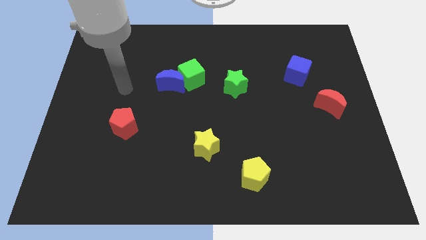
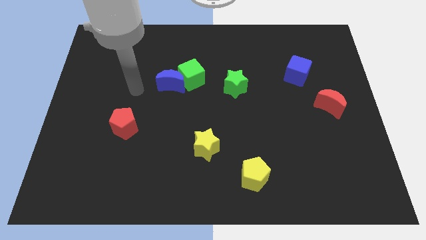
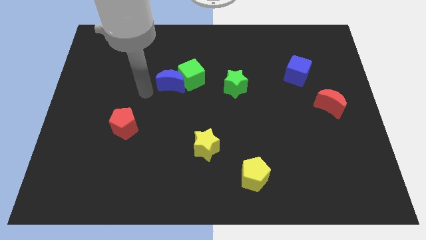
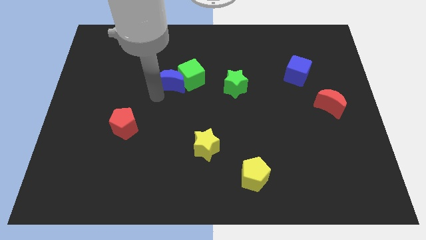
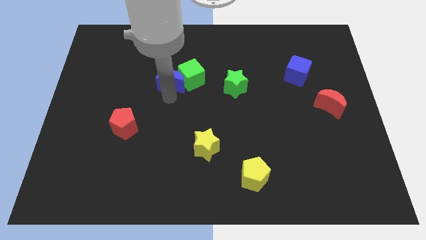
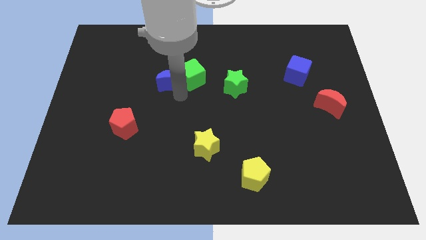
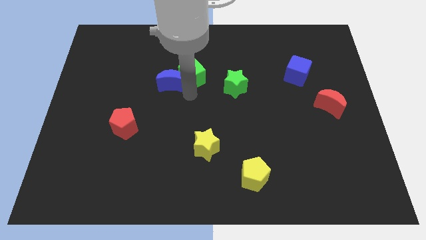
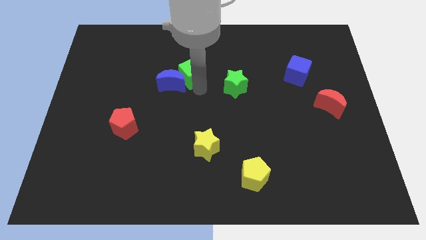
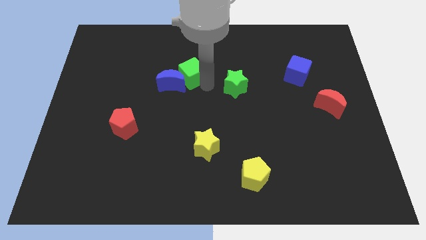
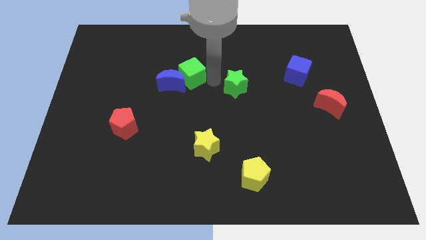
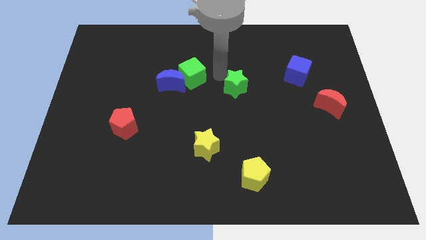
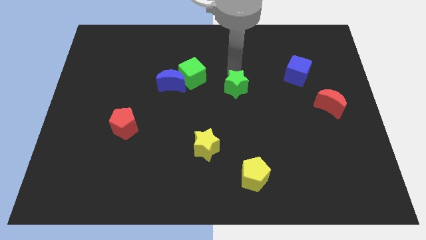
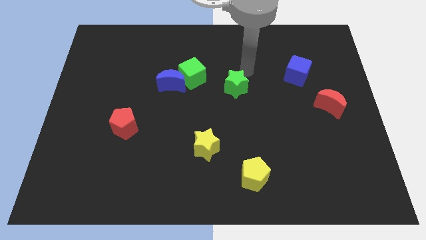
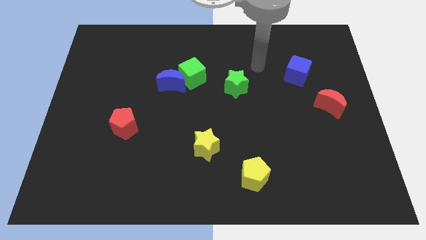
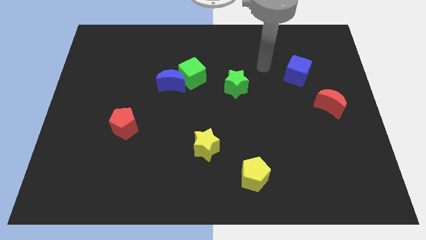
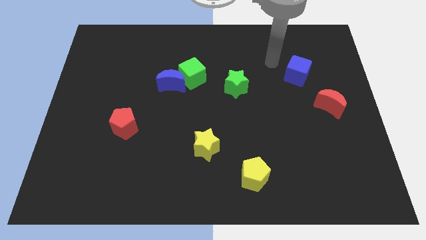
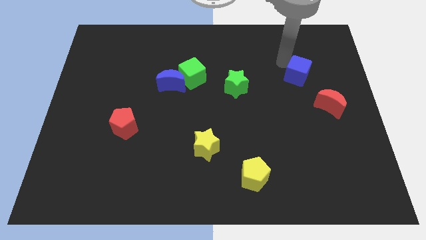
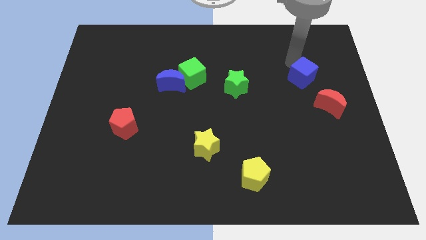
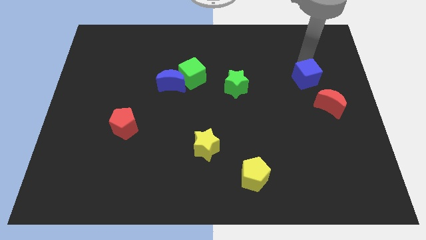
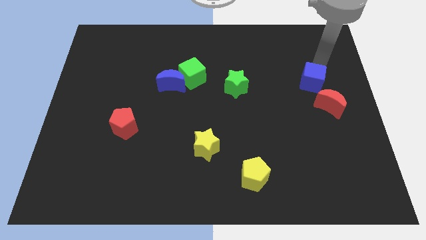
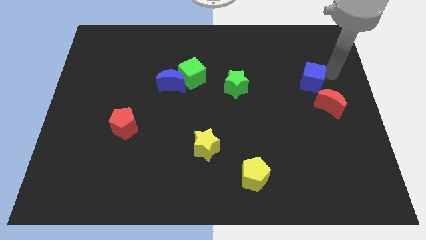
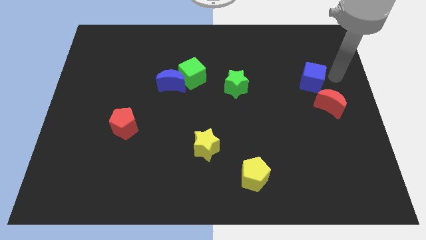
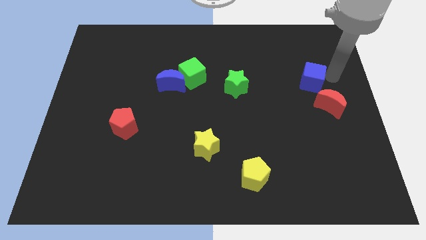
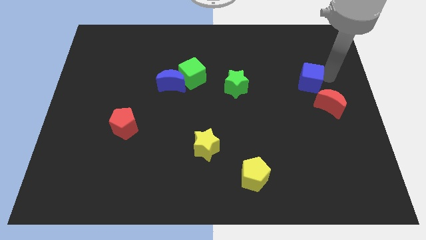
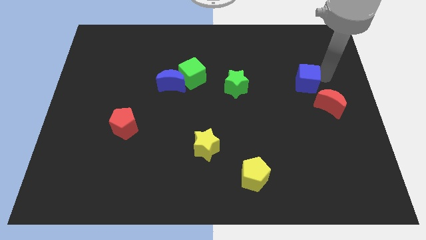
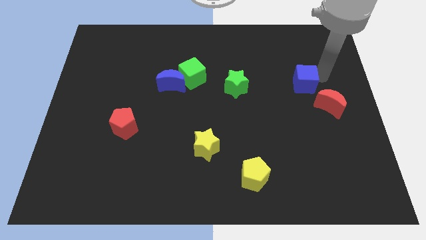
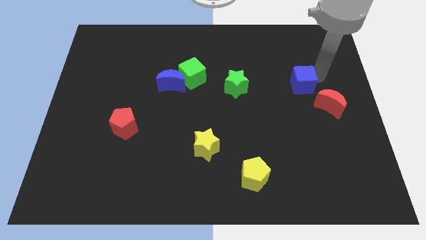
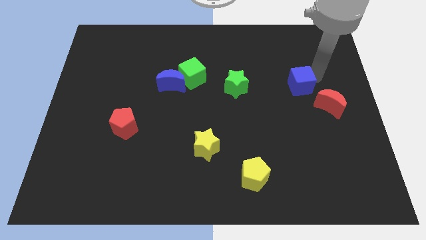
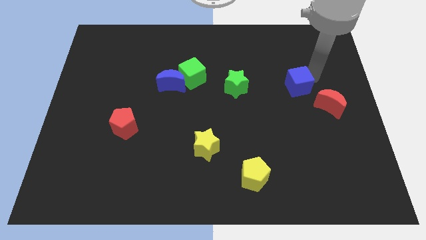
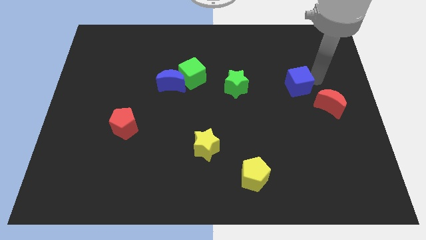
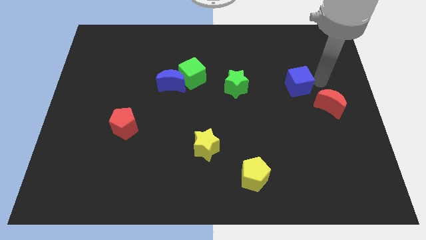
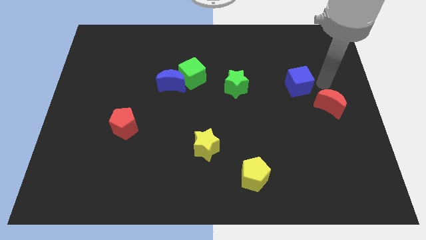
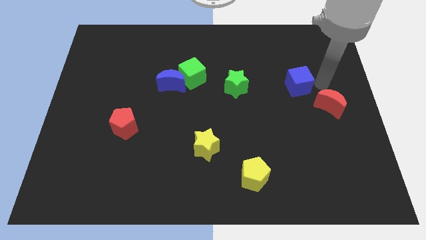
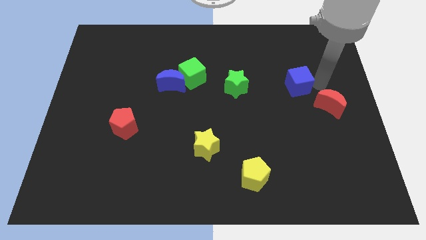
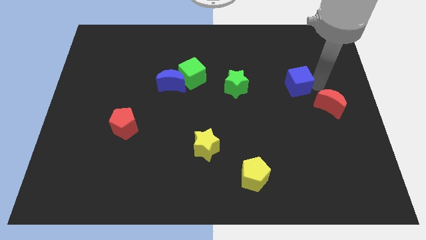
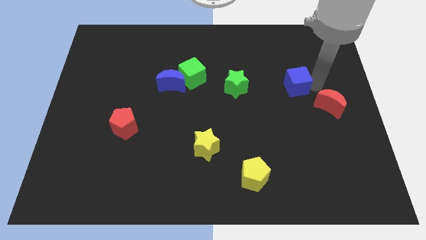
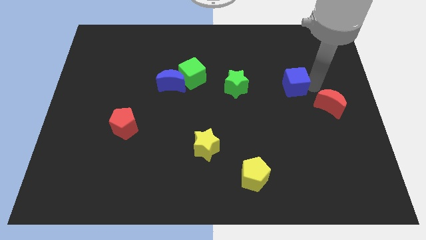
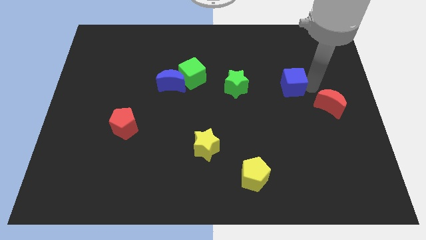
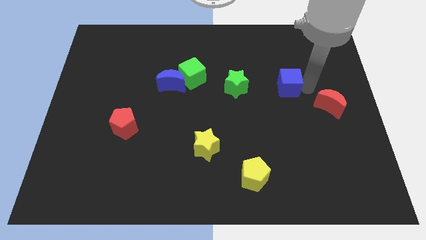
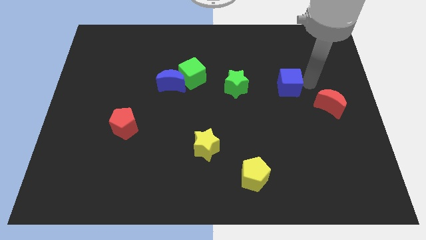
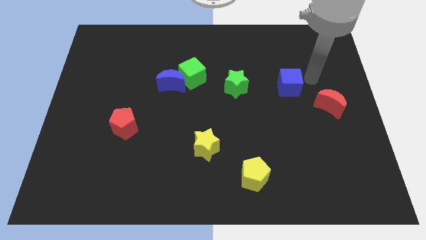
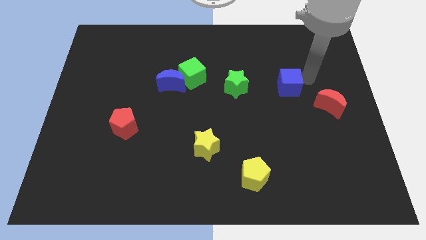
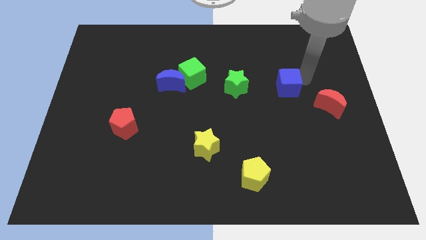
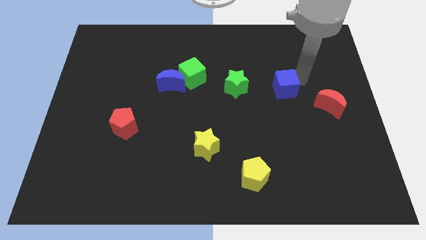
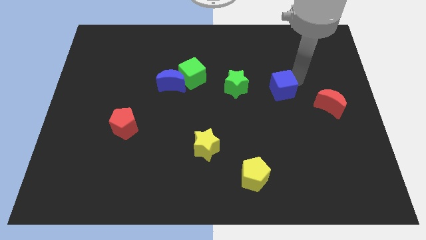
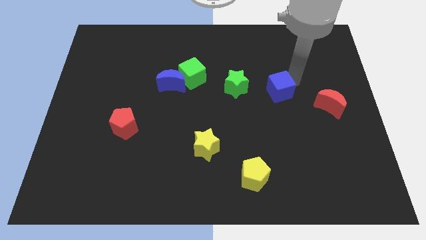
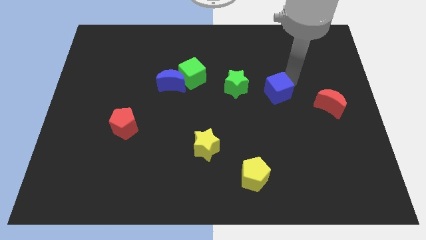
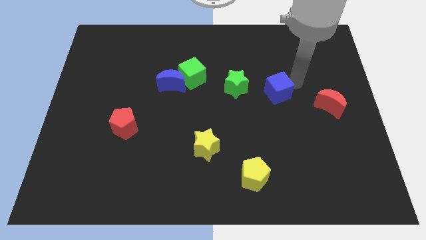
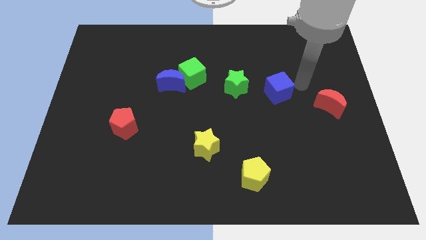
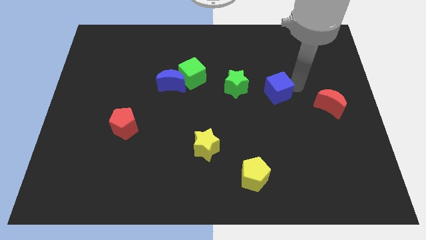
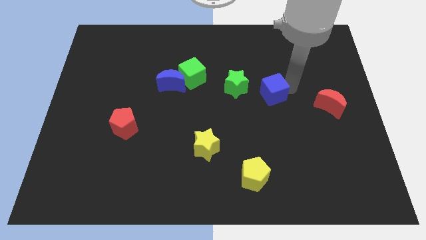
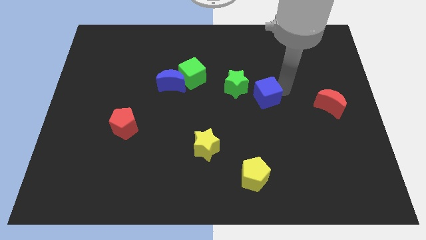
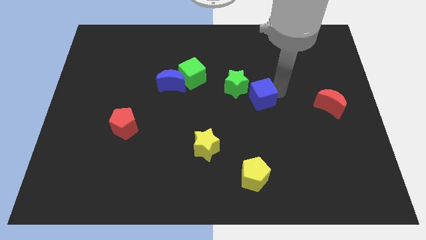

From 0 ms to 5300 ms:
put the blue cube to the middle of the board

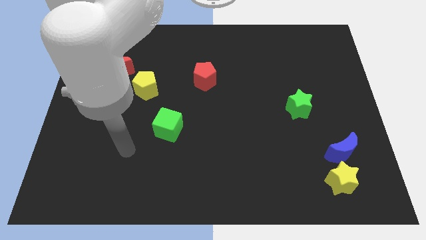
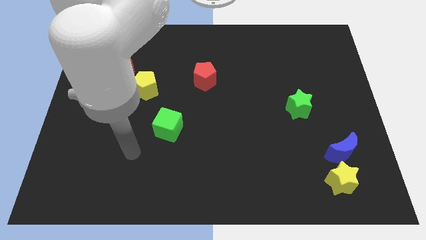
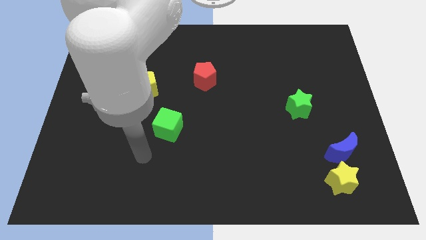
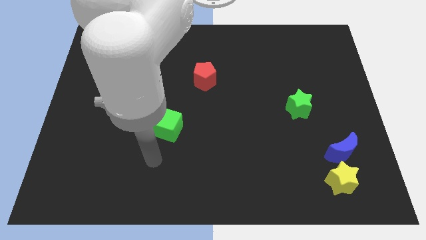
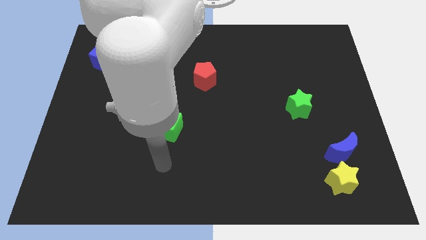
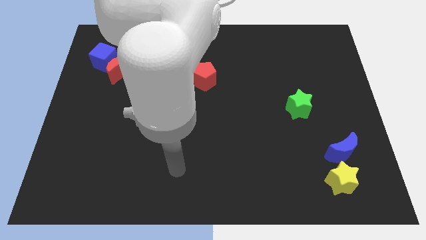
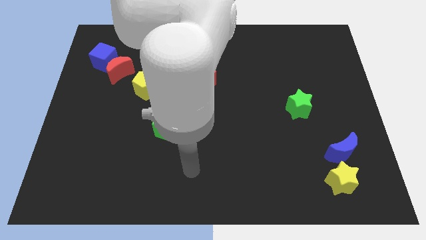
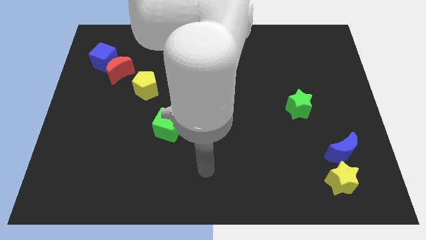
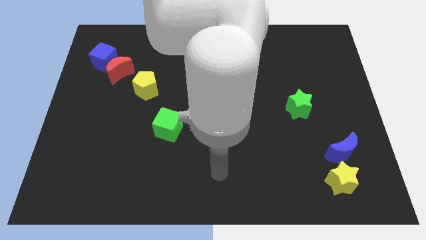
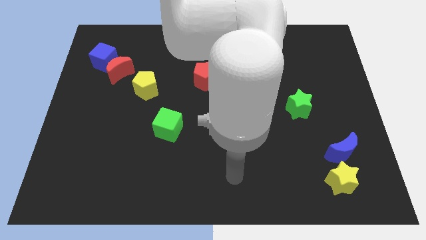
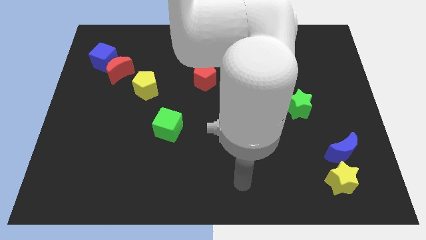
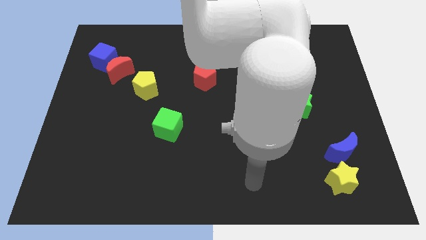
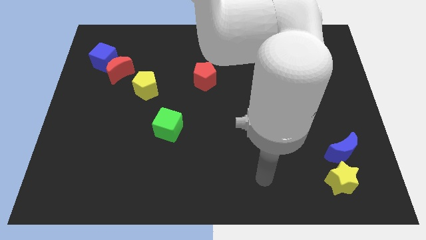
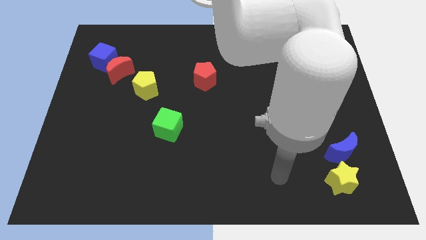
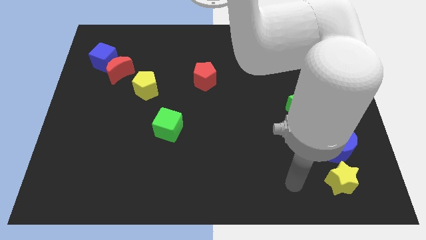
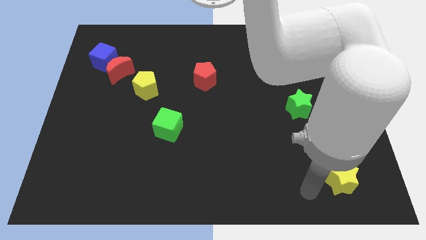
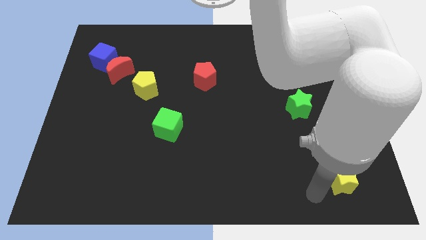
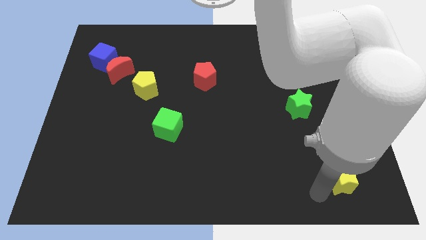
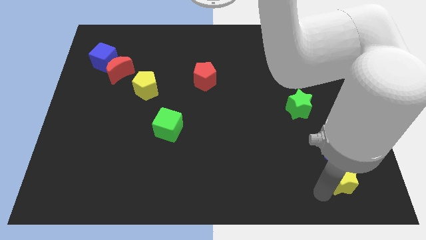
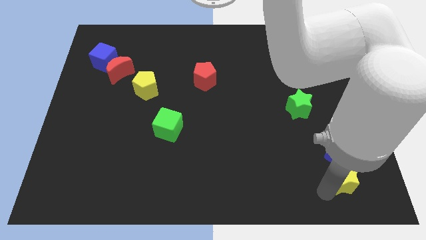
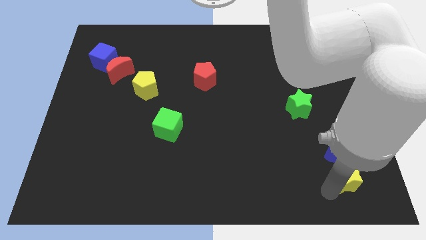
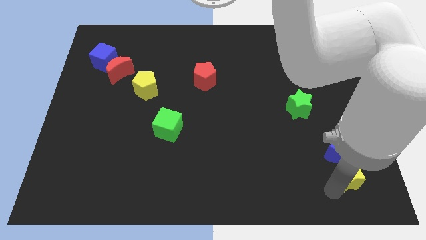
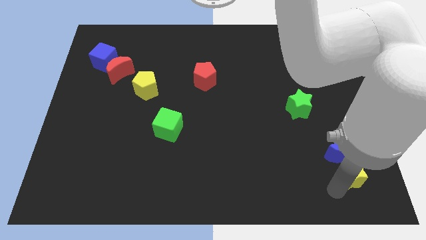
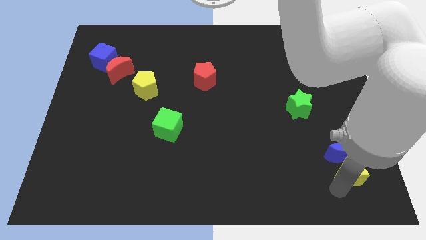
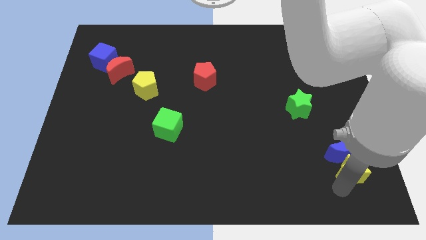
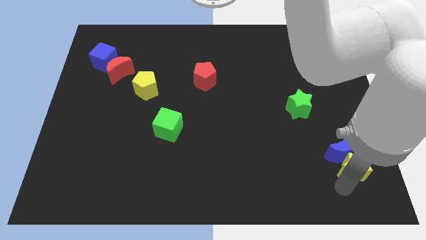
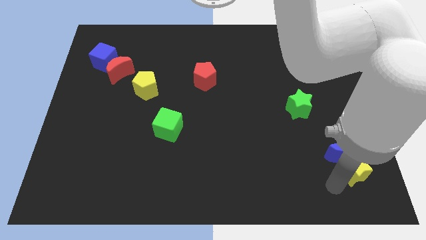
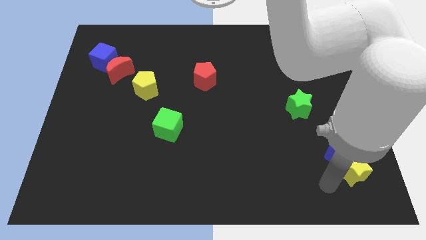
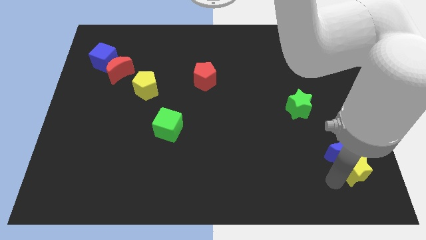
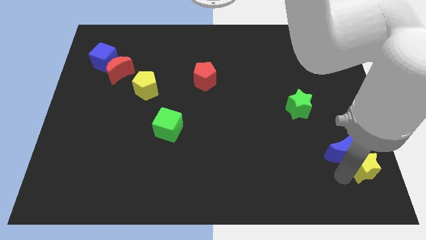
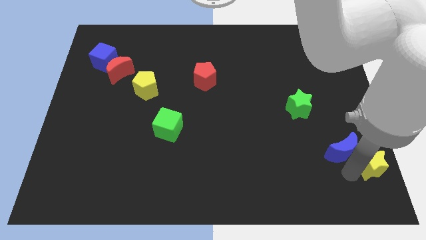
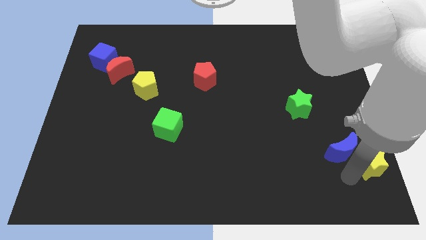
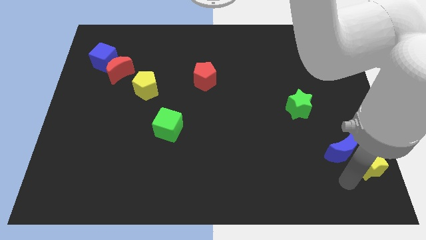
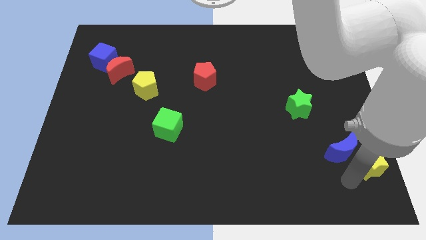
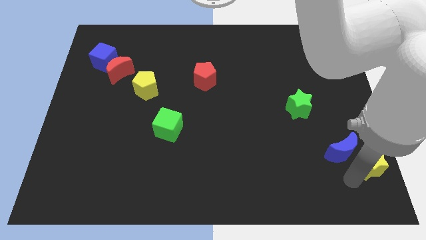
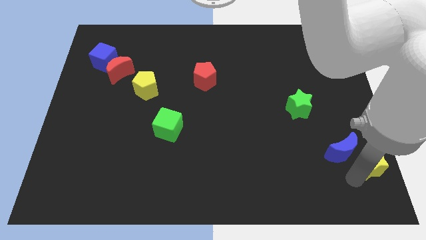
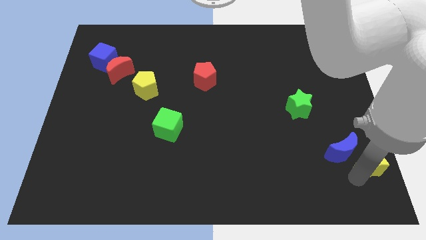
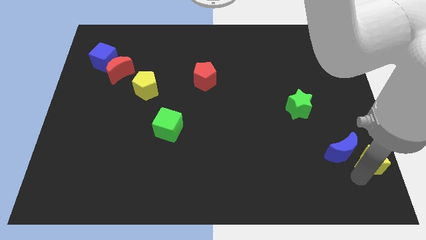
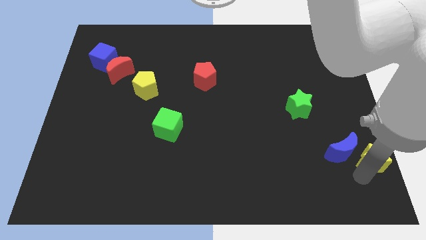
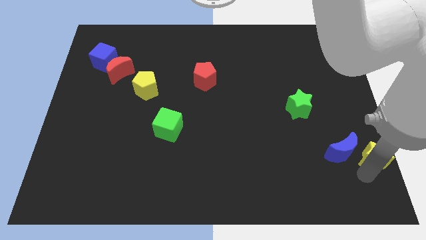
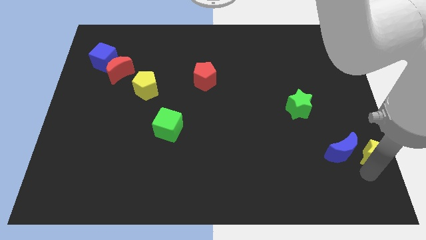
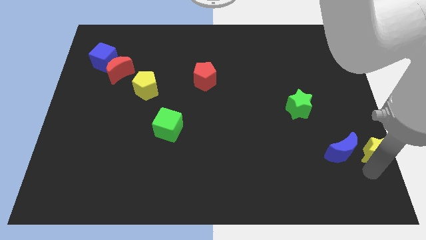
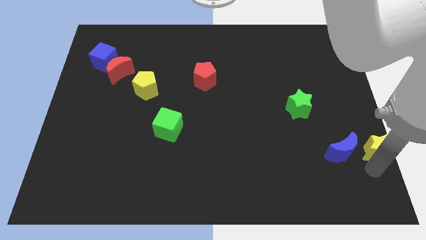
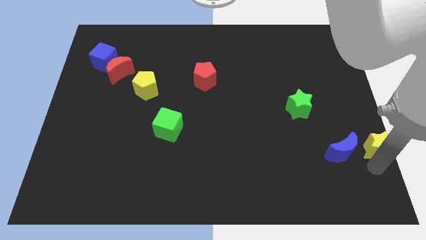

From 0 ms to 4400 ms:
slide the yellow star to the right side of the board
